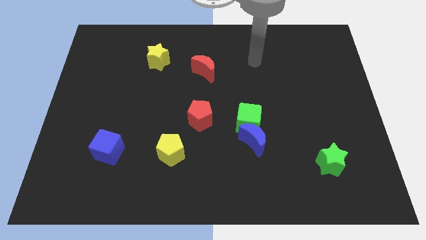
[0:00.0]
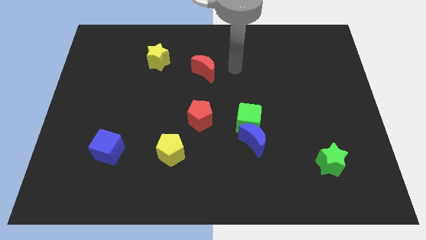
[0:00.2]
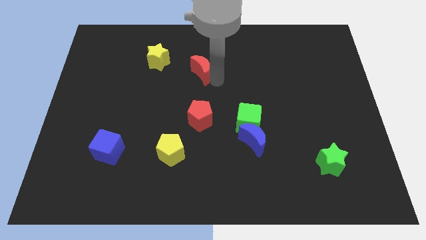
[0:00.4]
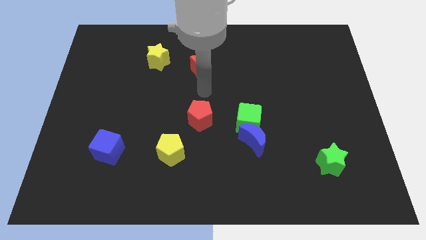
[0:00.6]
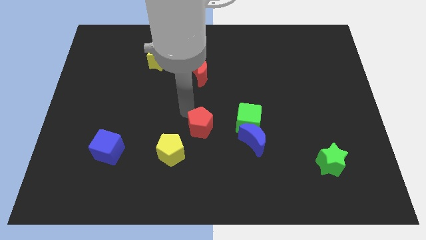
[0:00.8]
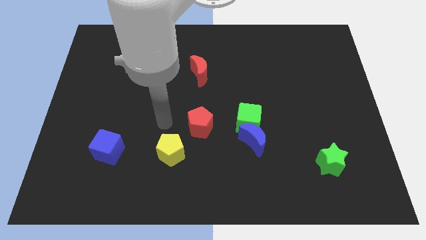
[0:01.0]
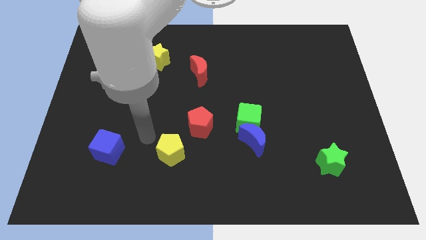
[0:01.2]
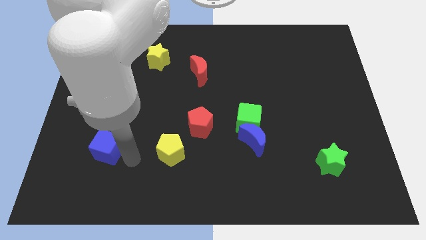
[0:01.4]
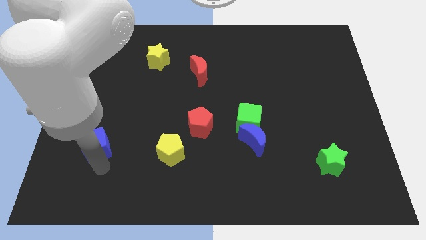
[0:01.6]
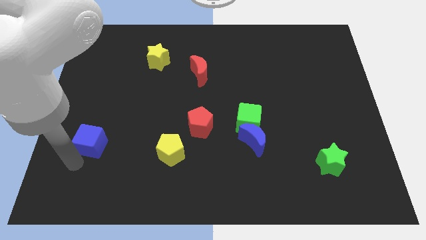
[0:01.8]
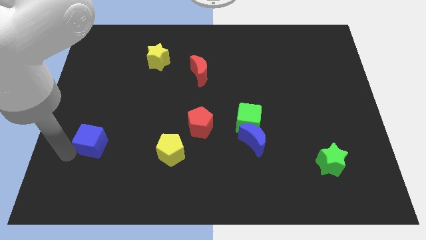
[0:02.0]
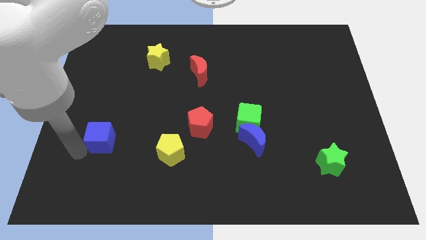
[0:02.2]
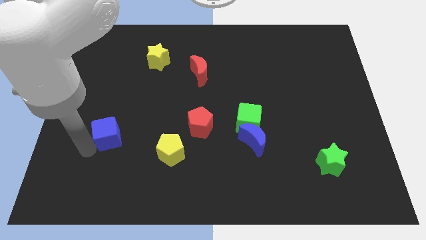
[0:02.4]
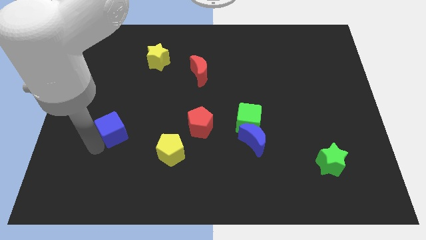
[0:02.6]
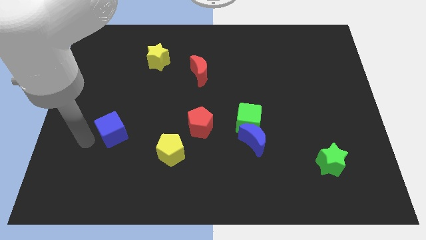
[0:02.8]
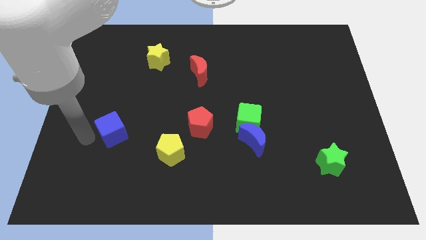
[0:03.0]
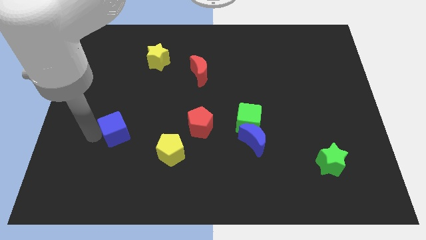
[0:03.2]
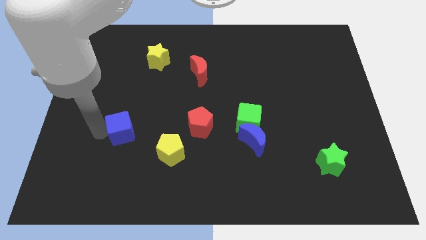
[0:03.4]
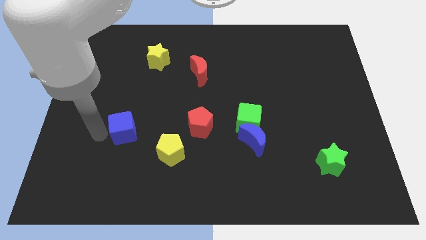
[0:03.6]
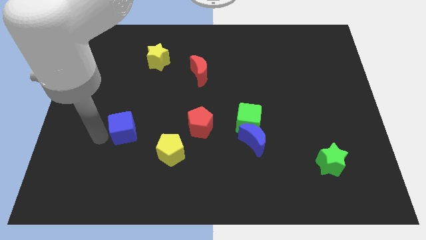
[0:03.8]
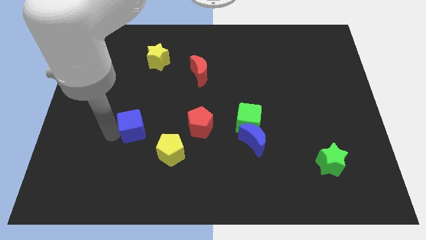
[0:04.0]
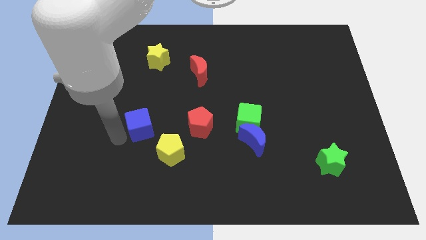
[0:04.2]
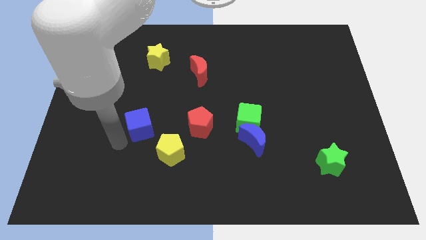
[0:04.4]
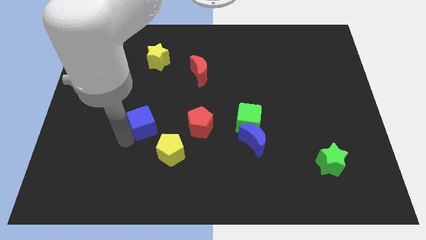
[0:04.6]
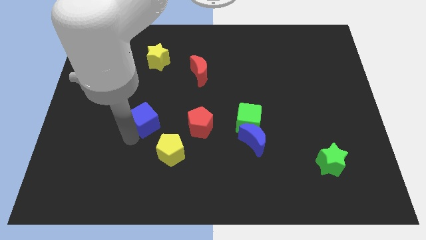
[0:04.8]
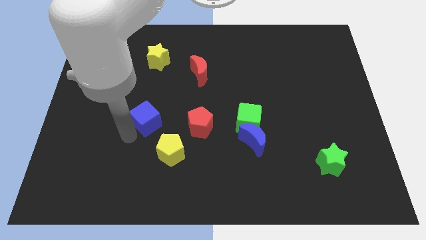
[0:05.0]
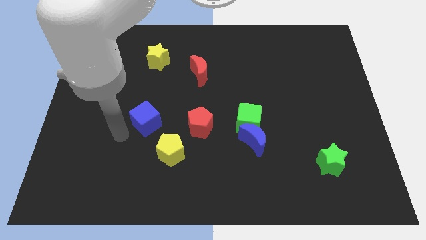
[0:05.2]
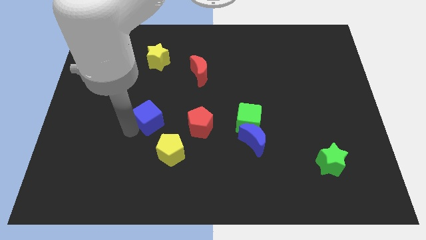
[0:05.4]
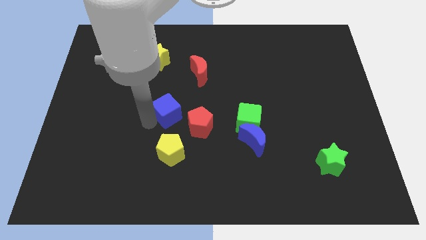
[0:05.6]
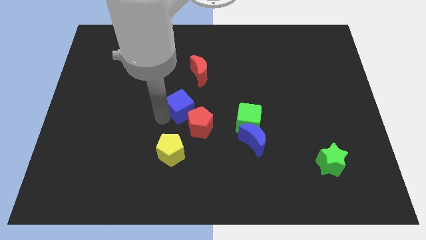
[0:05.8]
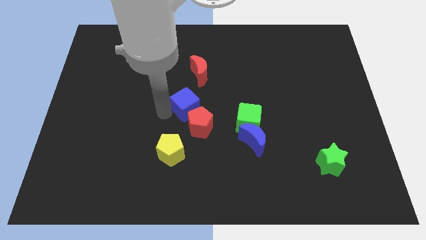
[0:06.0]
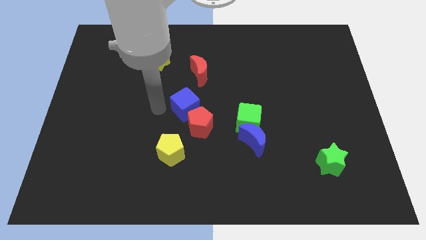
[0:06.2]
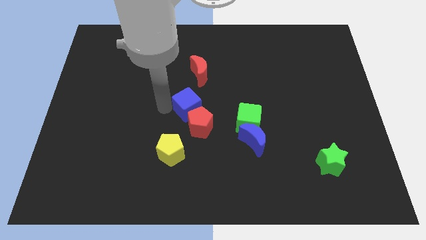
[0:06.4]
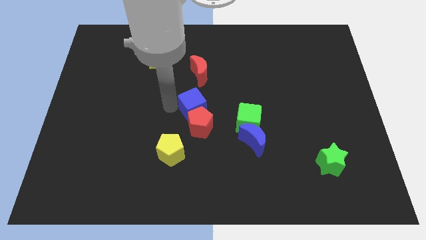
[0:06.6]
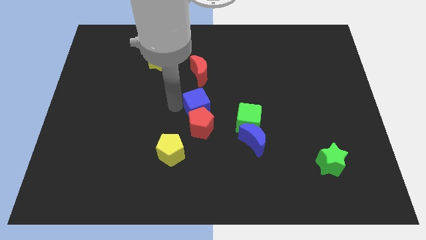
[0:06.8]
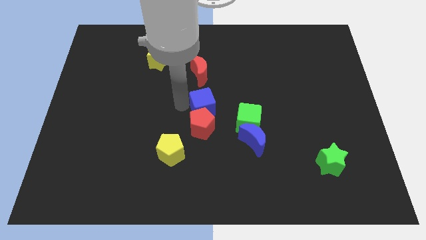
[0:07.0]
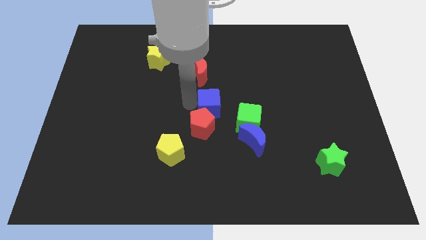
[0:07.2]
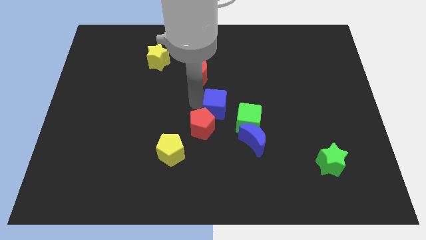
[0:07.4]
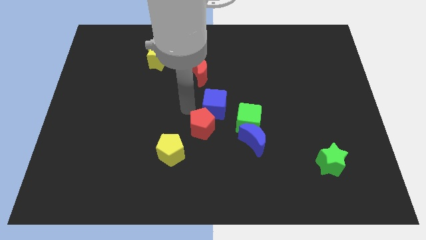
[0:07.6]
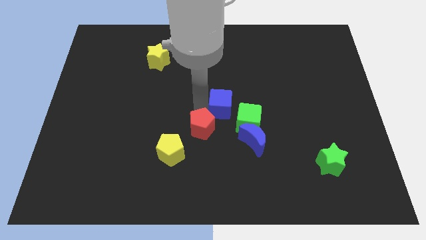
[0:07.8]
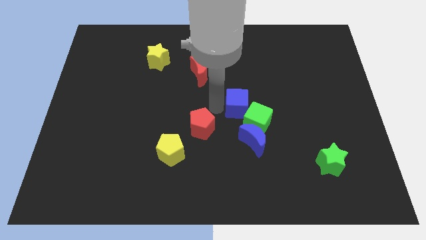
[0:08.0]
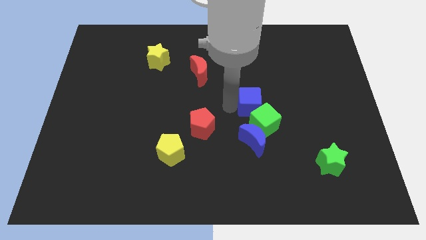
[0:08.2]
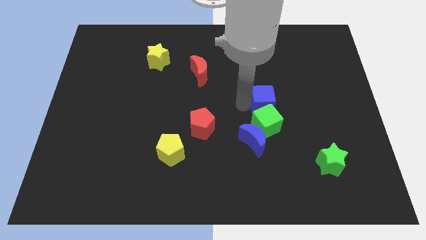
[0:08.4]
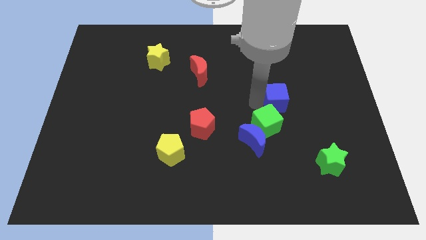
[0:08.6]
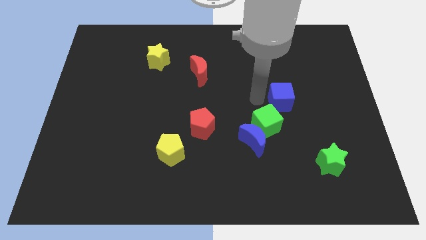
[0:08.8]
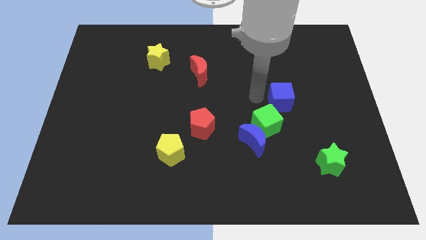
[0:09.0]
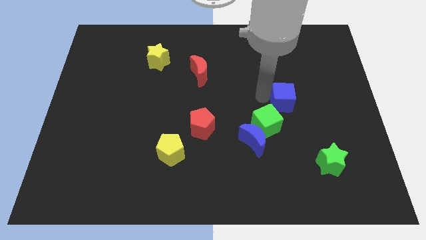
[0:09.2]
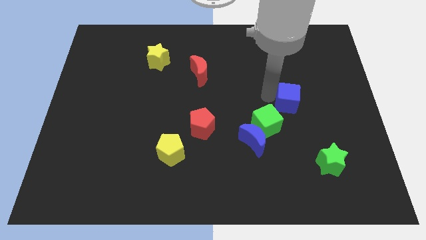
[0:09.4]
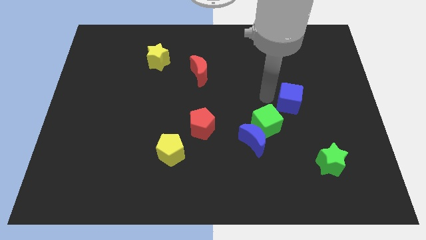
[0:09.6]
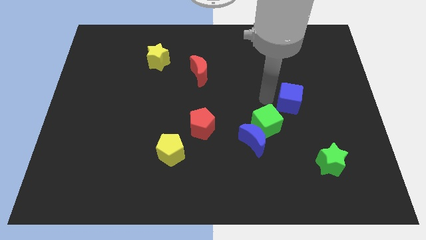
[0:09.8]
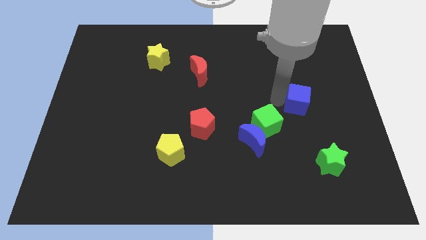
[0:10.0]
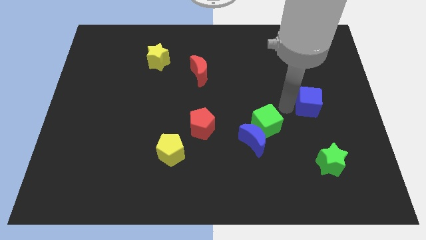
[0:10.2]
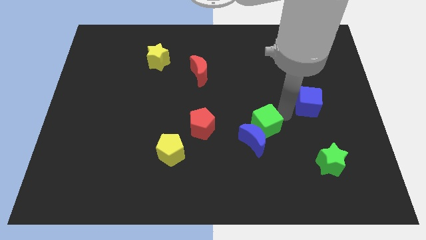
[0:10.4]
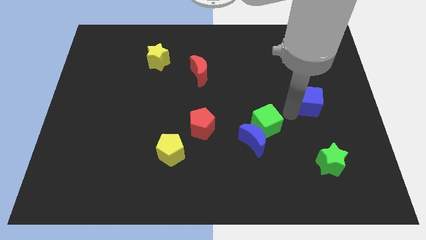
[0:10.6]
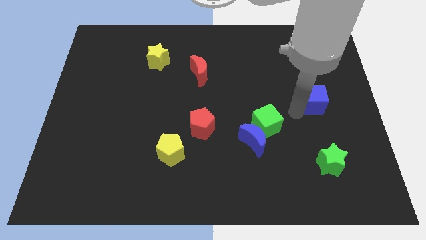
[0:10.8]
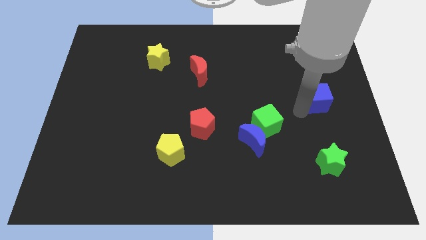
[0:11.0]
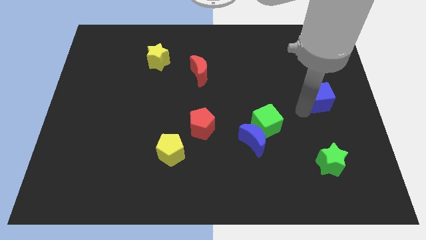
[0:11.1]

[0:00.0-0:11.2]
put the blue cube to the right side of the board
